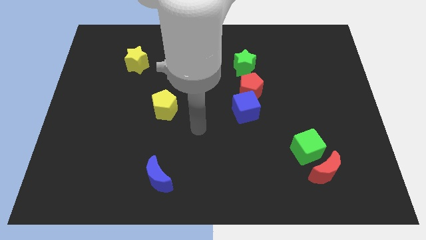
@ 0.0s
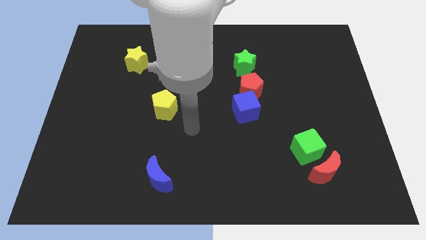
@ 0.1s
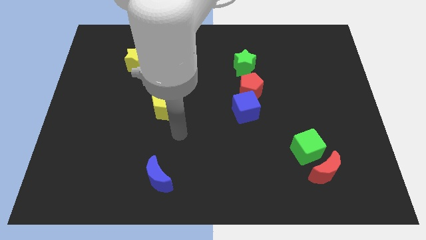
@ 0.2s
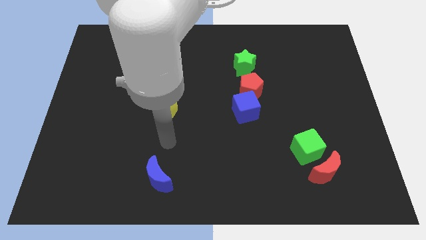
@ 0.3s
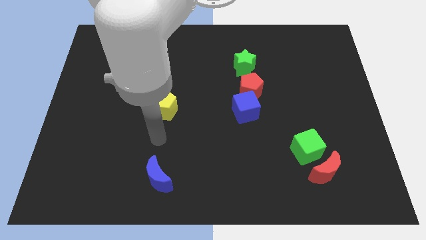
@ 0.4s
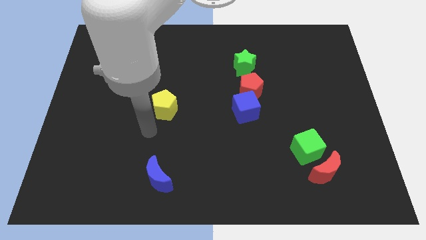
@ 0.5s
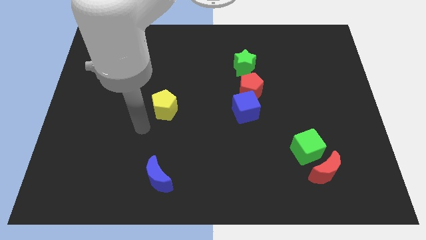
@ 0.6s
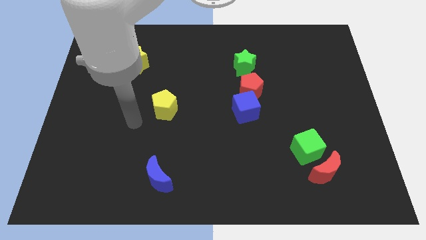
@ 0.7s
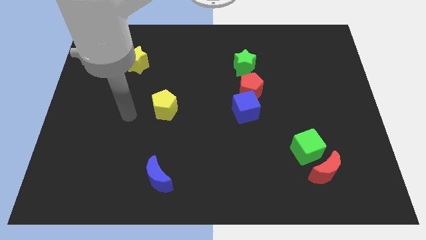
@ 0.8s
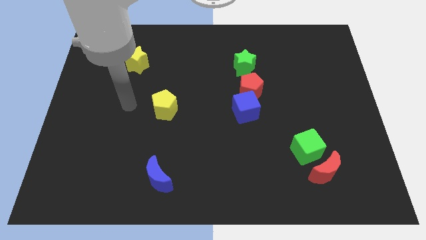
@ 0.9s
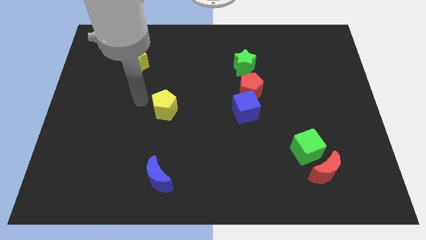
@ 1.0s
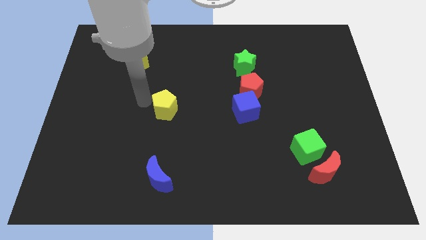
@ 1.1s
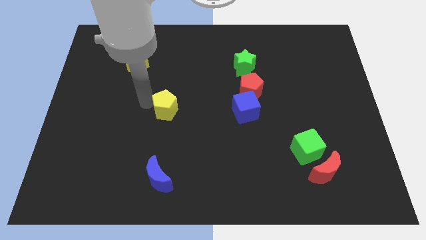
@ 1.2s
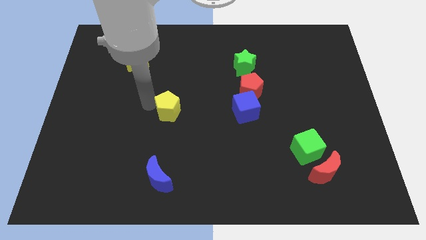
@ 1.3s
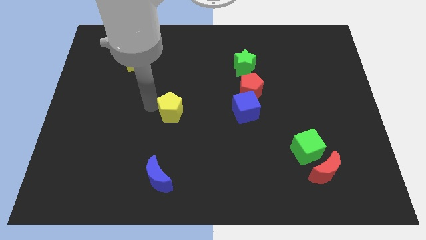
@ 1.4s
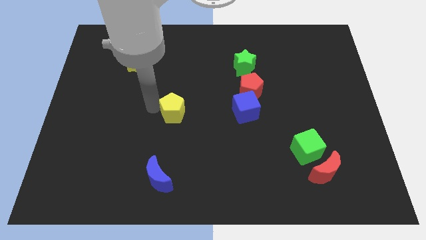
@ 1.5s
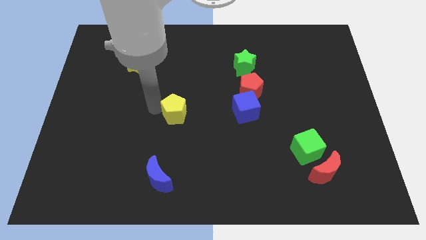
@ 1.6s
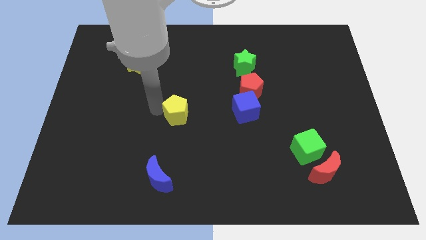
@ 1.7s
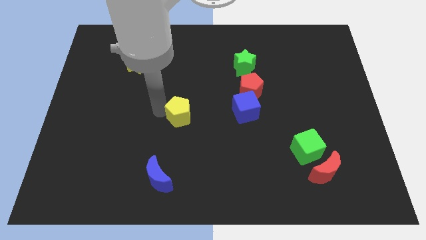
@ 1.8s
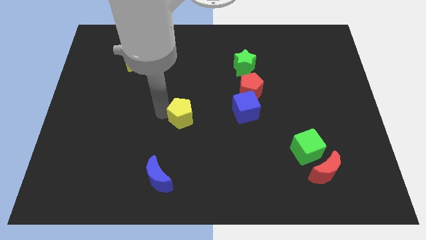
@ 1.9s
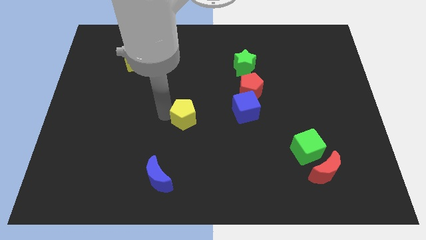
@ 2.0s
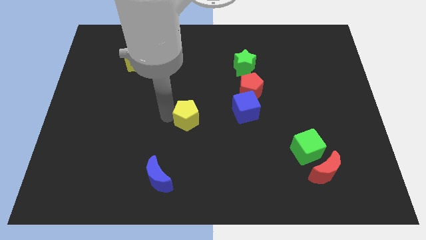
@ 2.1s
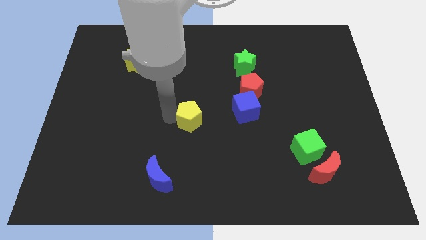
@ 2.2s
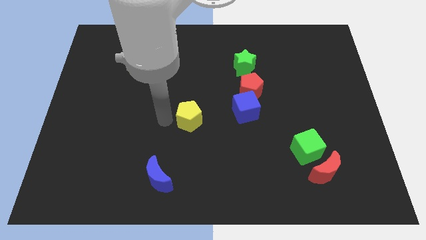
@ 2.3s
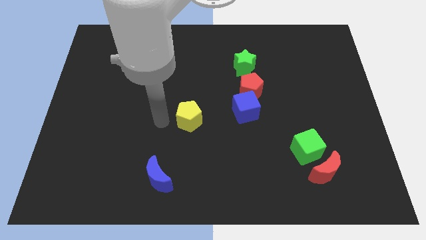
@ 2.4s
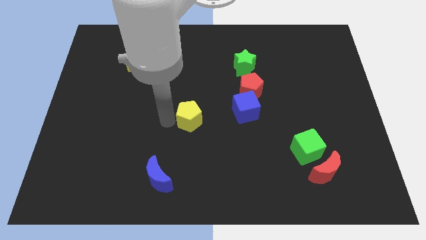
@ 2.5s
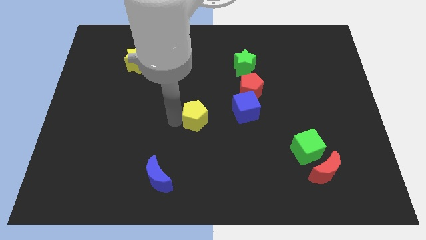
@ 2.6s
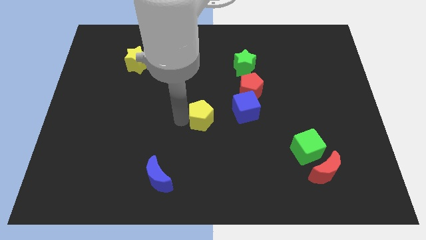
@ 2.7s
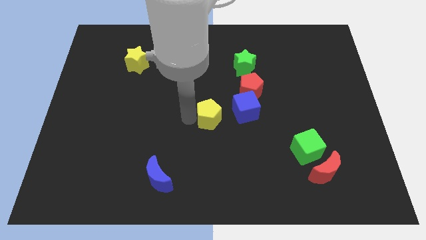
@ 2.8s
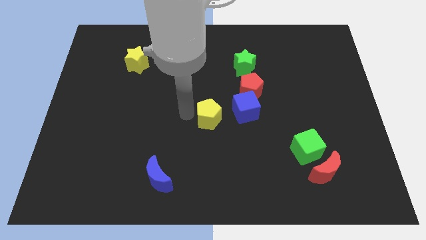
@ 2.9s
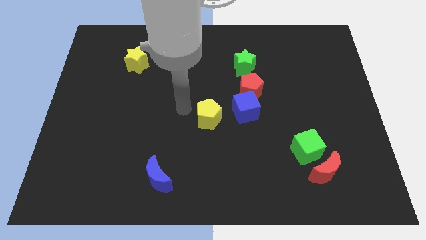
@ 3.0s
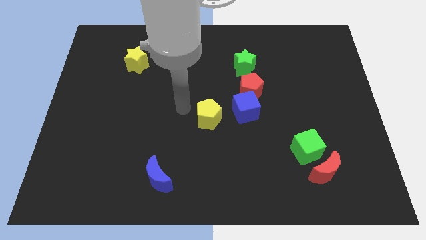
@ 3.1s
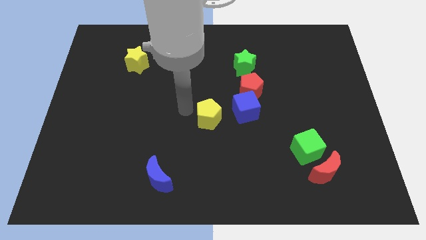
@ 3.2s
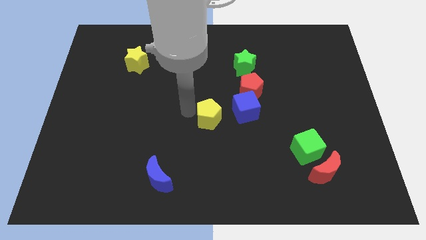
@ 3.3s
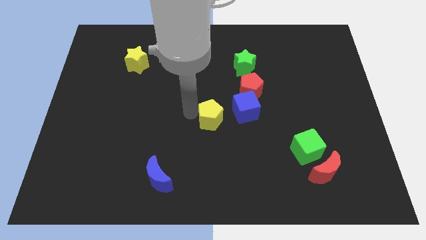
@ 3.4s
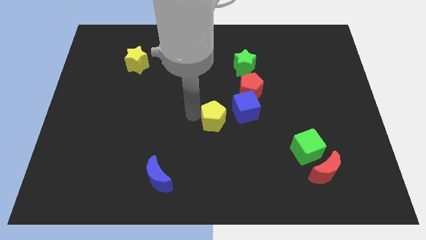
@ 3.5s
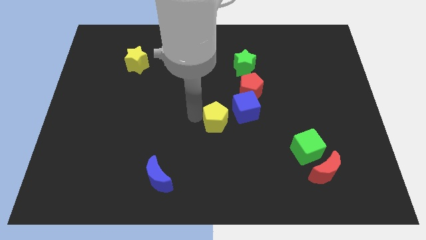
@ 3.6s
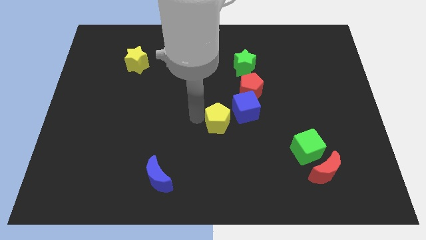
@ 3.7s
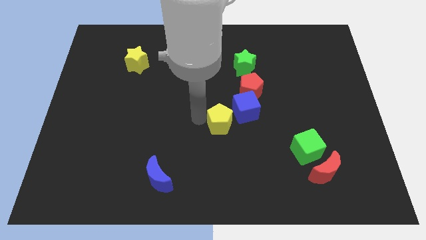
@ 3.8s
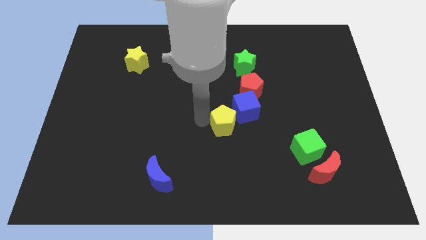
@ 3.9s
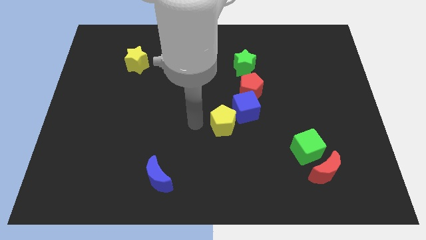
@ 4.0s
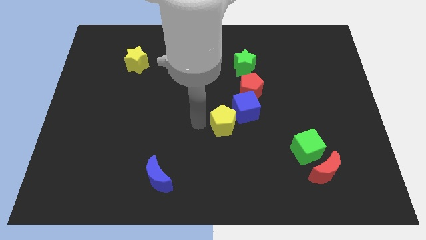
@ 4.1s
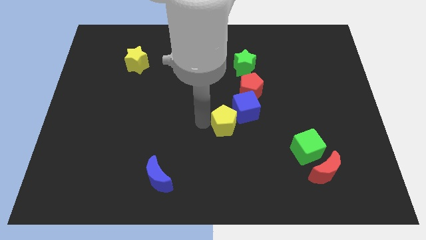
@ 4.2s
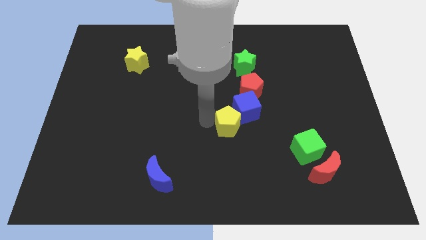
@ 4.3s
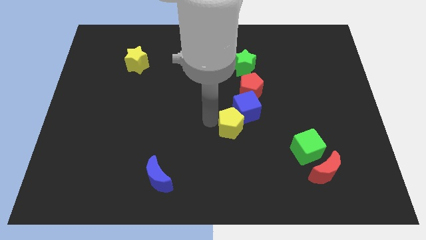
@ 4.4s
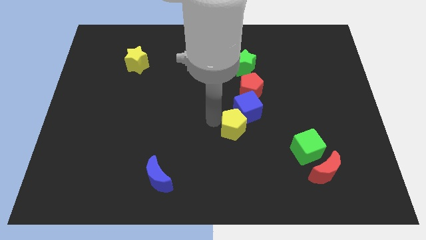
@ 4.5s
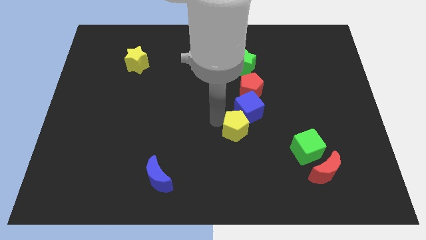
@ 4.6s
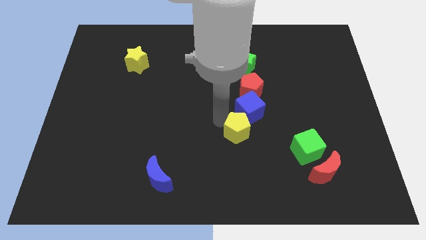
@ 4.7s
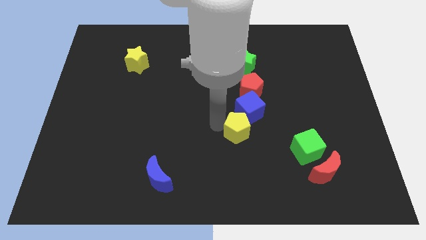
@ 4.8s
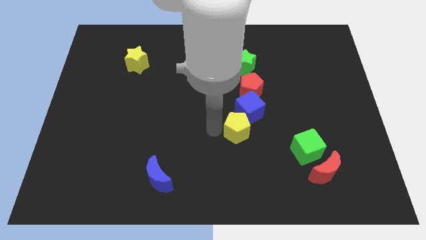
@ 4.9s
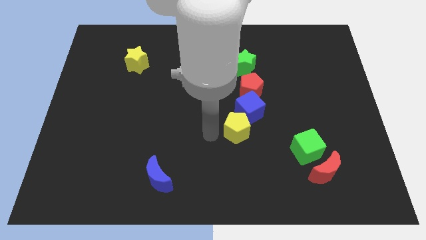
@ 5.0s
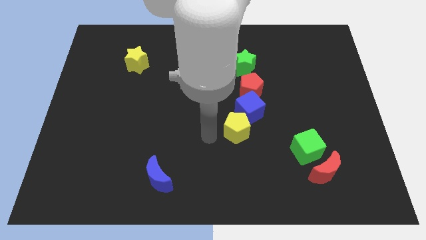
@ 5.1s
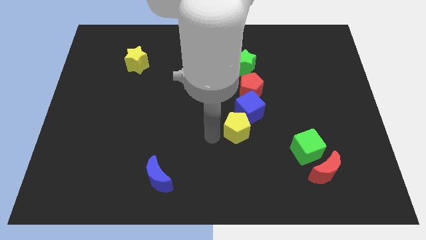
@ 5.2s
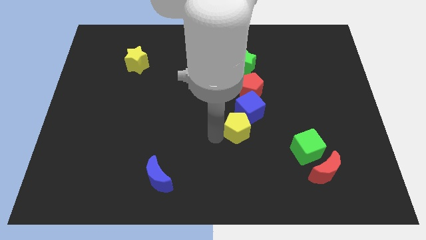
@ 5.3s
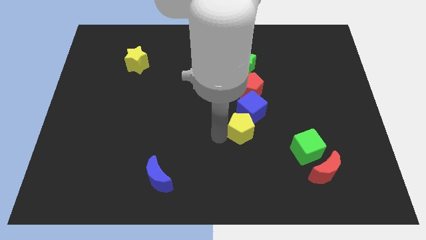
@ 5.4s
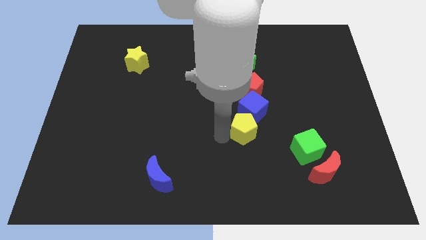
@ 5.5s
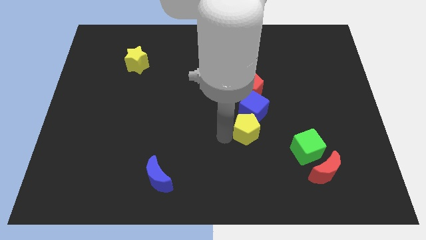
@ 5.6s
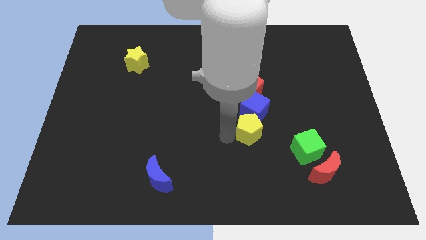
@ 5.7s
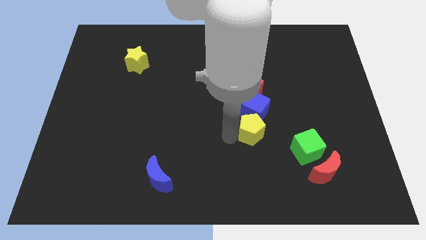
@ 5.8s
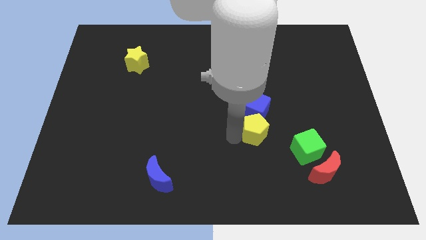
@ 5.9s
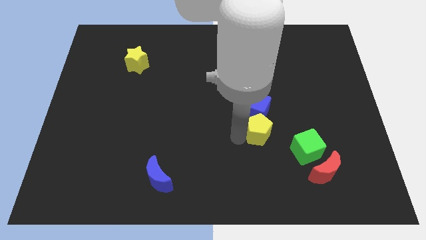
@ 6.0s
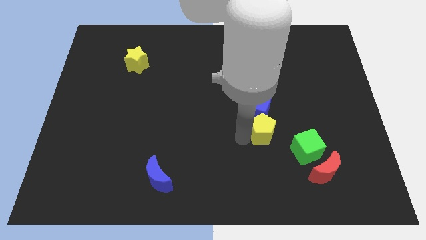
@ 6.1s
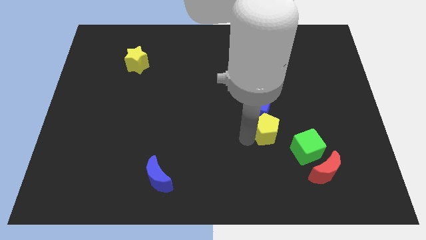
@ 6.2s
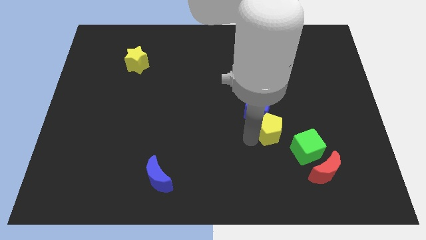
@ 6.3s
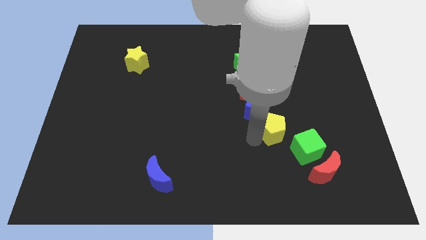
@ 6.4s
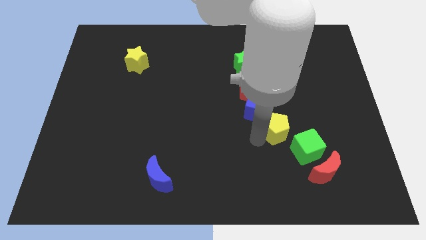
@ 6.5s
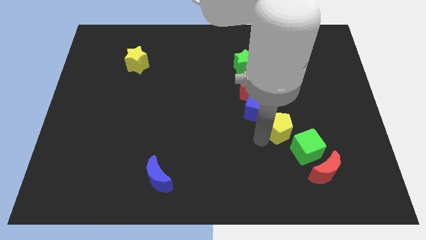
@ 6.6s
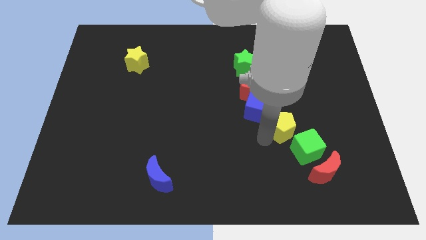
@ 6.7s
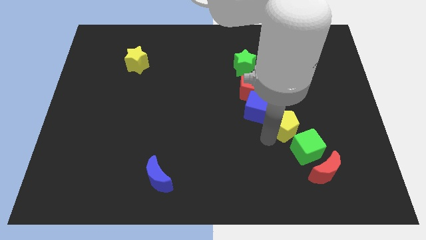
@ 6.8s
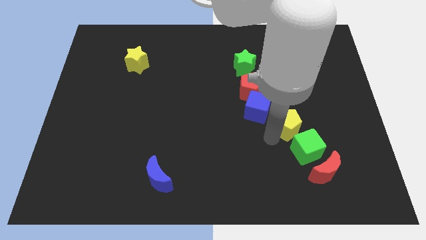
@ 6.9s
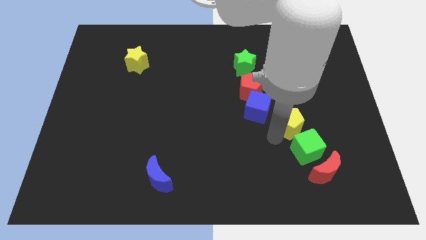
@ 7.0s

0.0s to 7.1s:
put the yellow pentagon to the bottom right of the red pentagon
